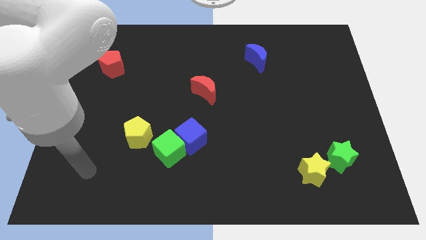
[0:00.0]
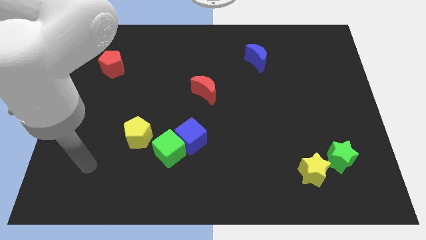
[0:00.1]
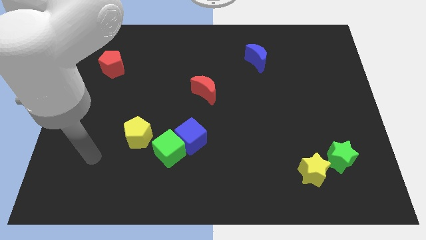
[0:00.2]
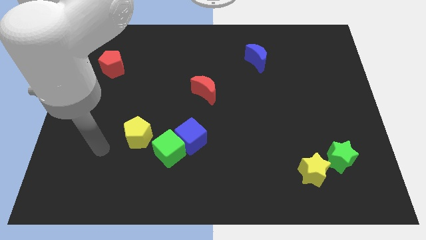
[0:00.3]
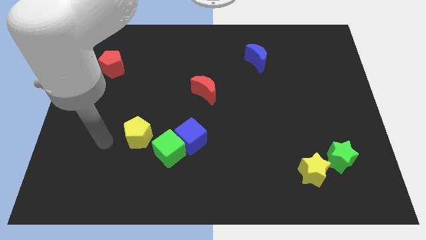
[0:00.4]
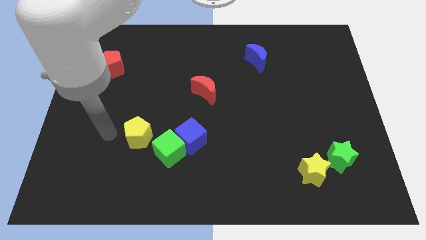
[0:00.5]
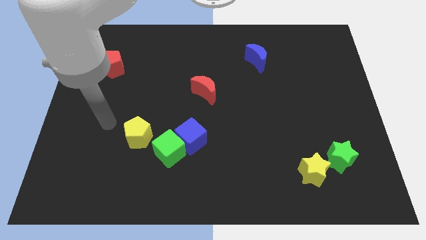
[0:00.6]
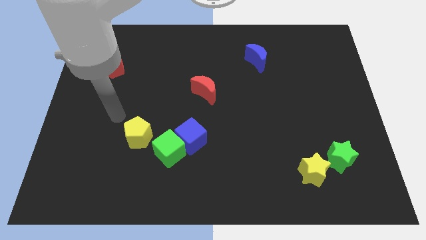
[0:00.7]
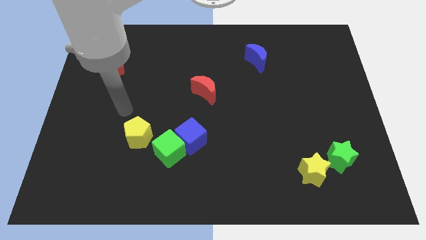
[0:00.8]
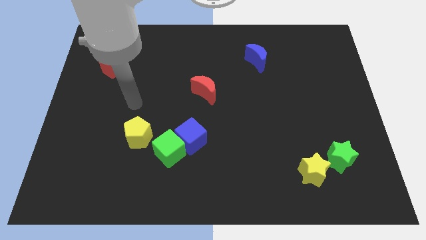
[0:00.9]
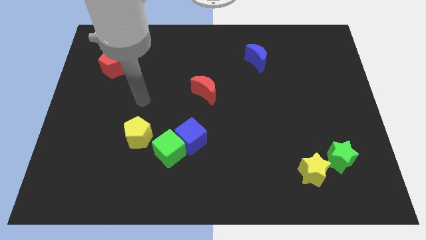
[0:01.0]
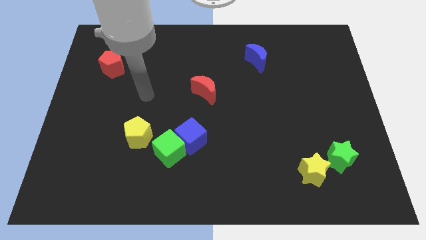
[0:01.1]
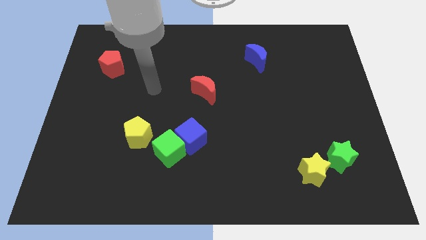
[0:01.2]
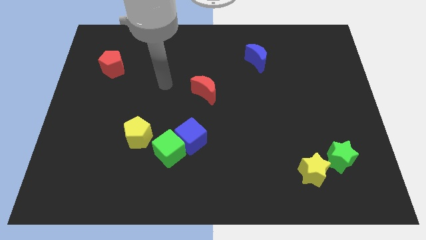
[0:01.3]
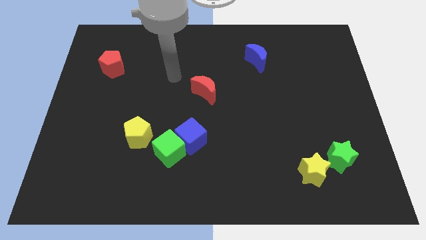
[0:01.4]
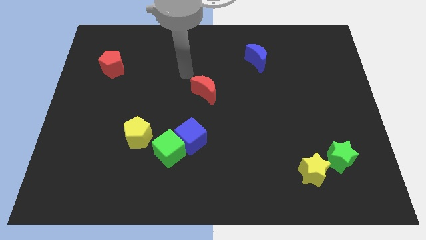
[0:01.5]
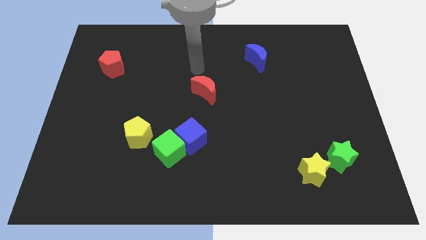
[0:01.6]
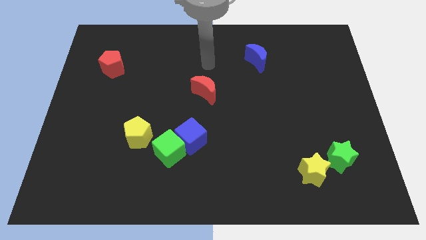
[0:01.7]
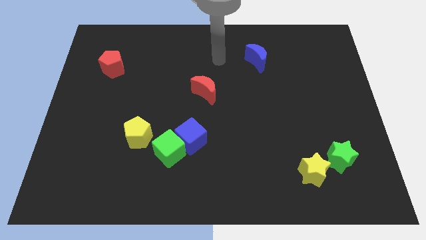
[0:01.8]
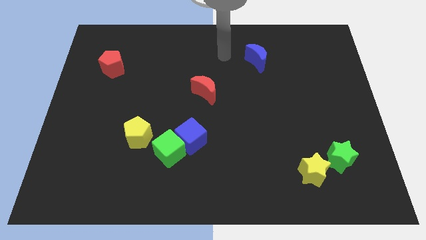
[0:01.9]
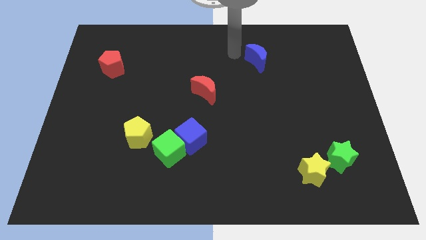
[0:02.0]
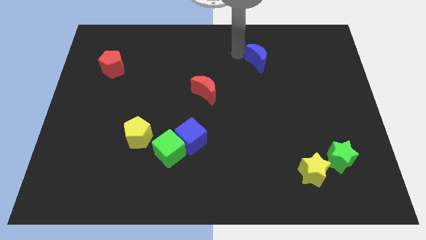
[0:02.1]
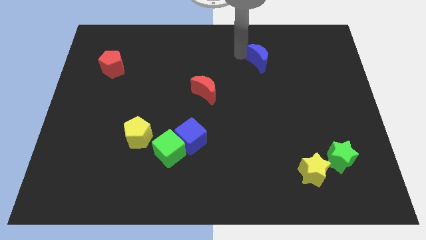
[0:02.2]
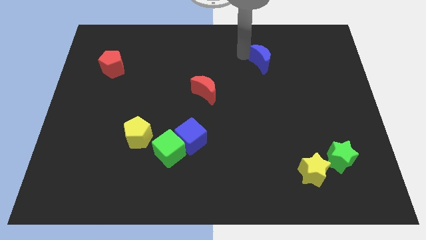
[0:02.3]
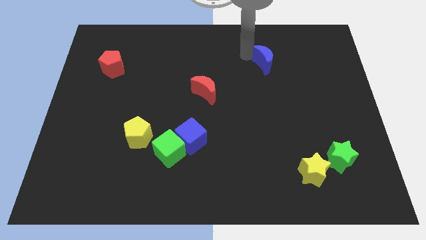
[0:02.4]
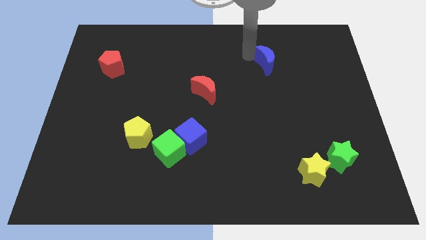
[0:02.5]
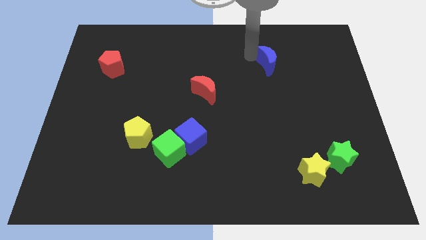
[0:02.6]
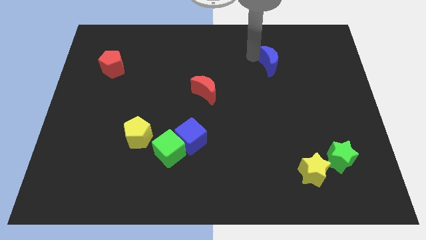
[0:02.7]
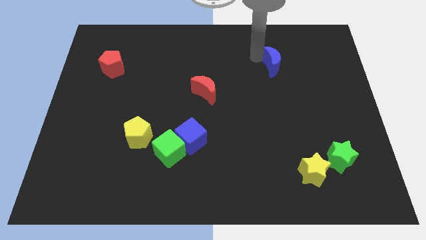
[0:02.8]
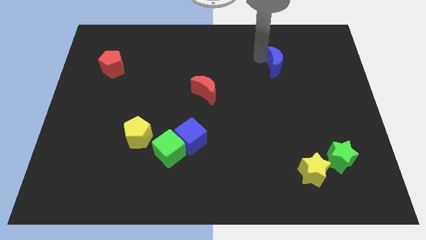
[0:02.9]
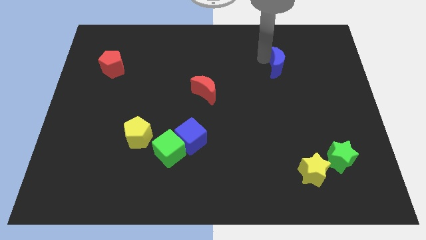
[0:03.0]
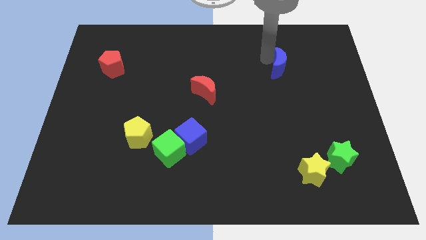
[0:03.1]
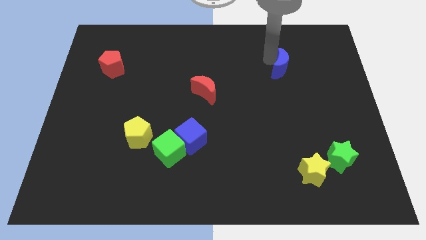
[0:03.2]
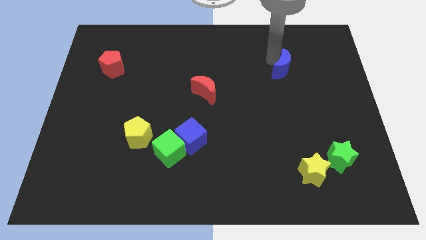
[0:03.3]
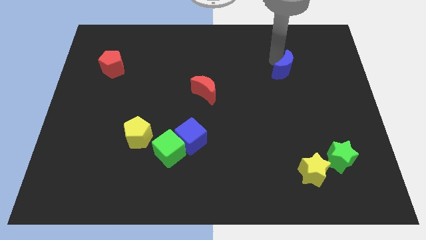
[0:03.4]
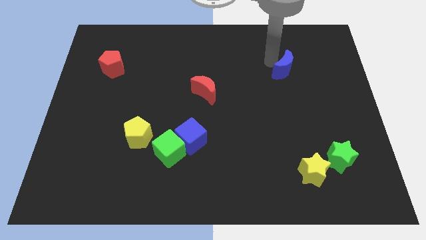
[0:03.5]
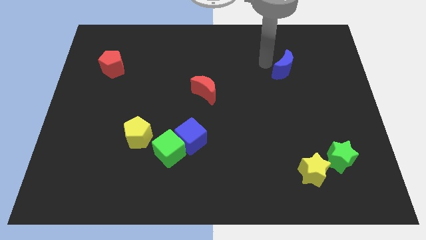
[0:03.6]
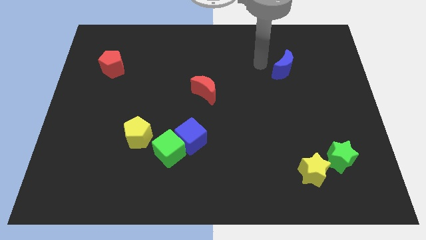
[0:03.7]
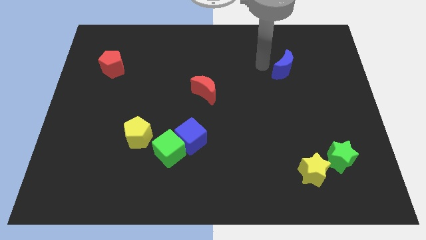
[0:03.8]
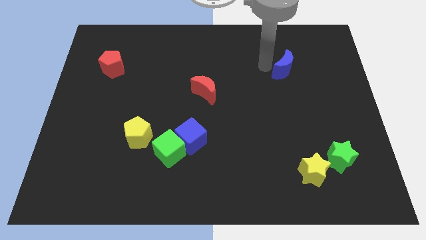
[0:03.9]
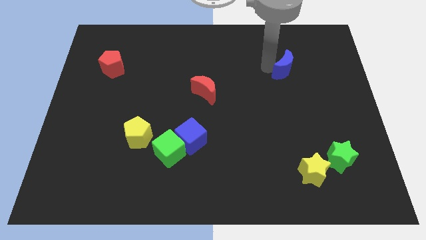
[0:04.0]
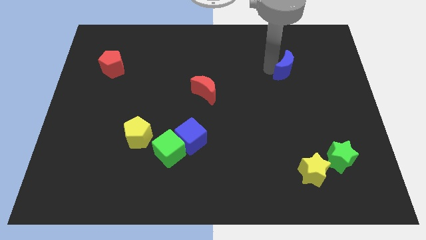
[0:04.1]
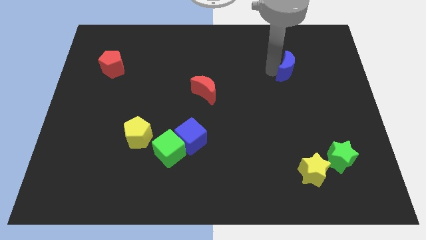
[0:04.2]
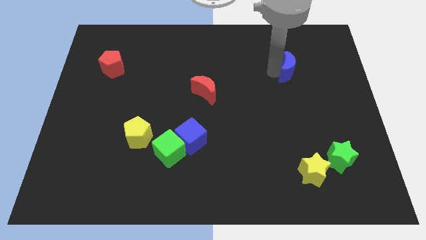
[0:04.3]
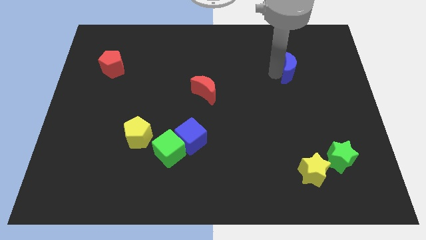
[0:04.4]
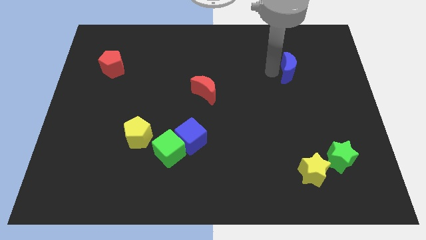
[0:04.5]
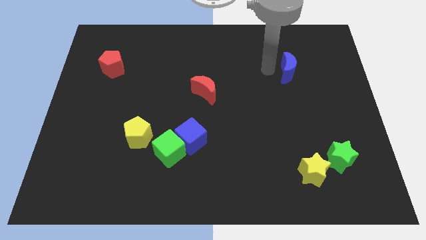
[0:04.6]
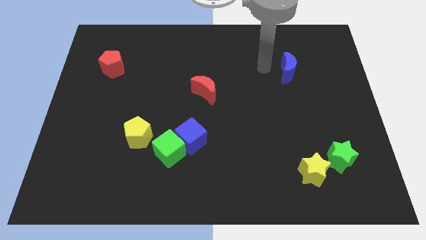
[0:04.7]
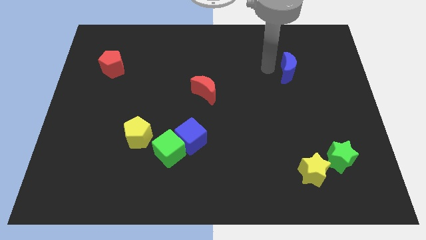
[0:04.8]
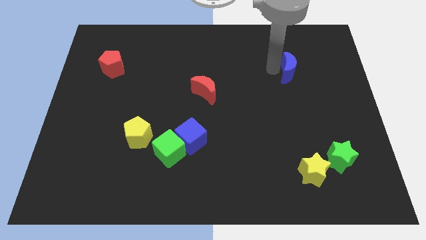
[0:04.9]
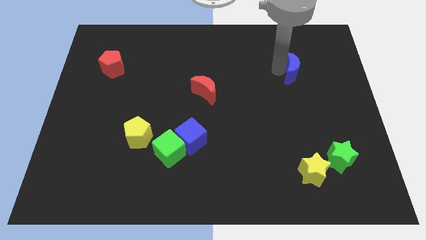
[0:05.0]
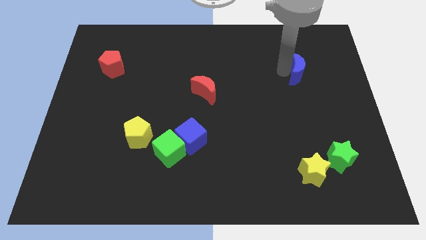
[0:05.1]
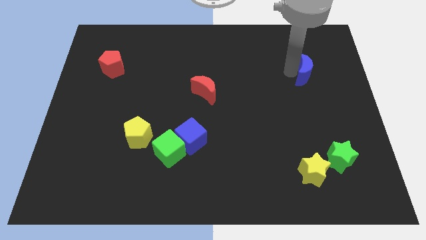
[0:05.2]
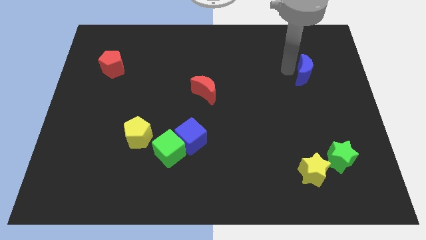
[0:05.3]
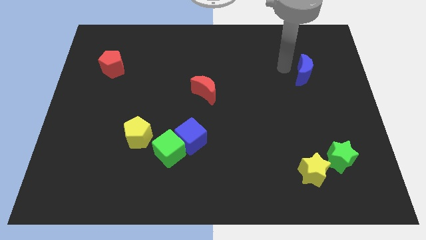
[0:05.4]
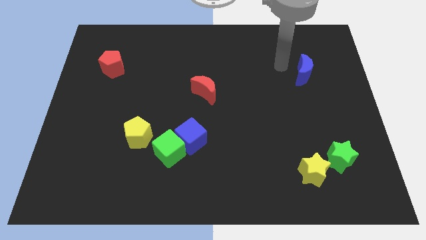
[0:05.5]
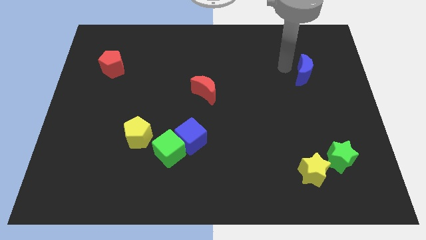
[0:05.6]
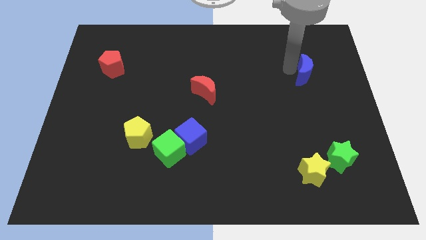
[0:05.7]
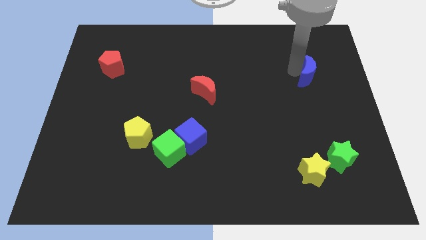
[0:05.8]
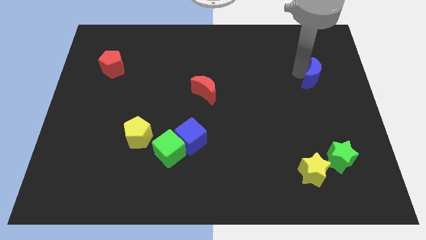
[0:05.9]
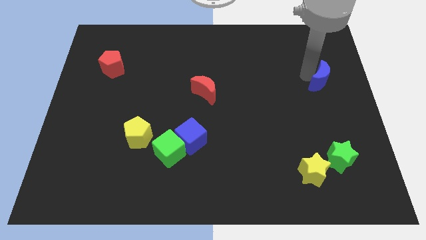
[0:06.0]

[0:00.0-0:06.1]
slide the blue moon to the right side

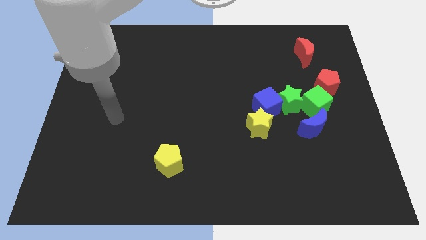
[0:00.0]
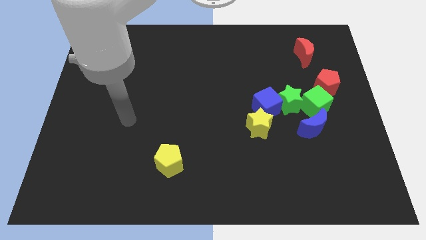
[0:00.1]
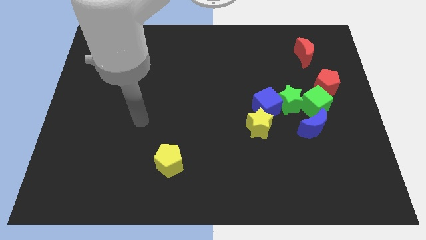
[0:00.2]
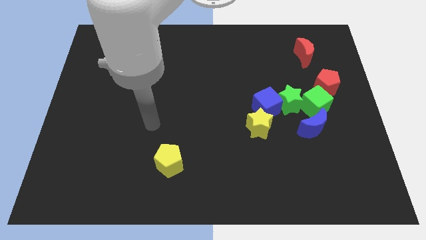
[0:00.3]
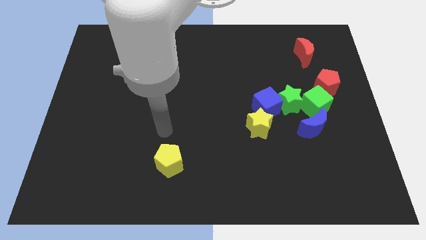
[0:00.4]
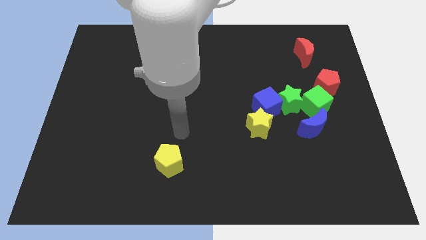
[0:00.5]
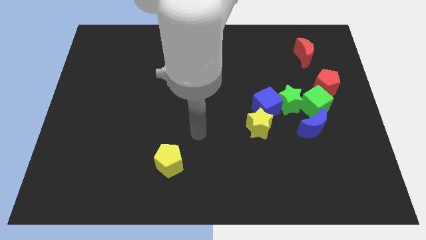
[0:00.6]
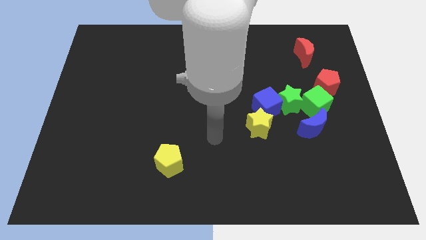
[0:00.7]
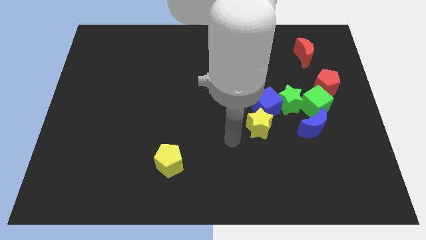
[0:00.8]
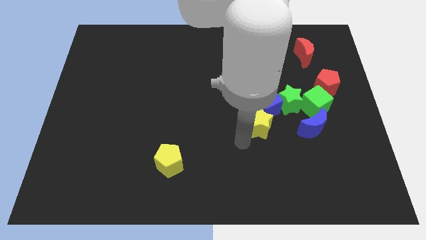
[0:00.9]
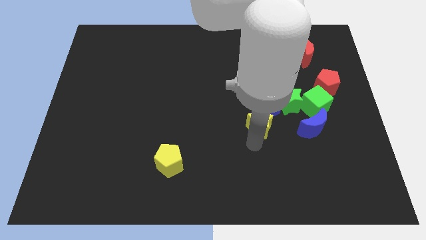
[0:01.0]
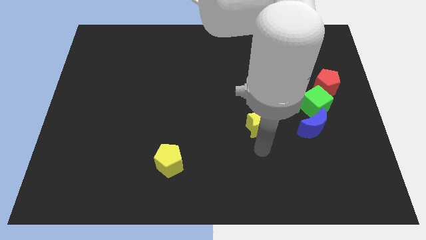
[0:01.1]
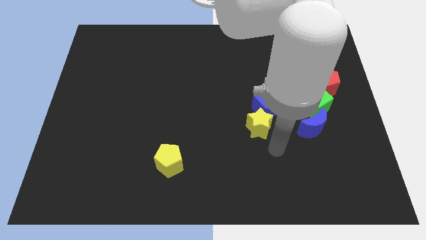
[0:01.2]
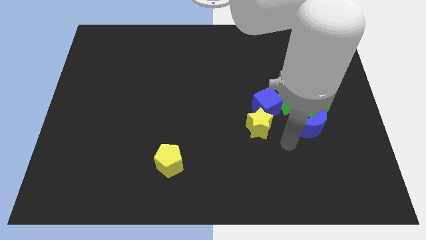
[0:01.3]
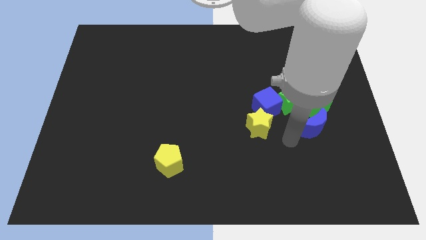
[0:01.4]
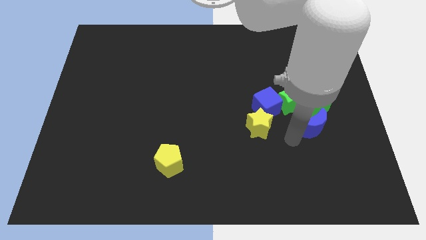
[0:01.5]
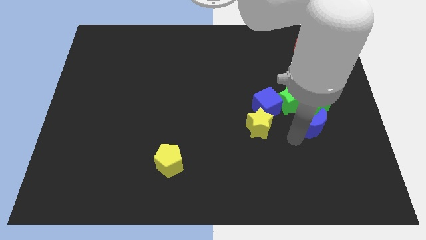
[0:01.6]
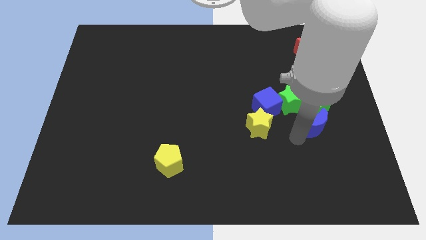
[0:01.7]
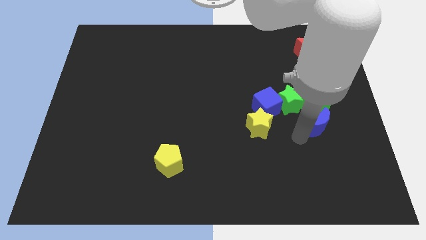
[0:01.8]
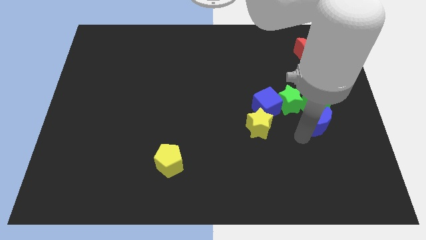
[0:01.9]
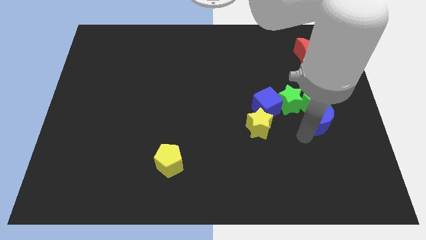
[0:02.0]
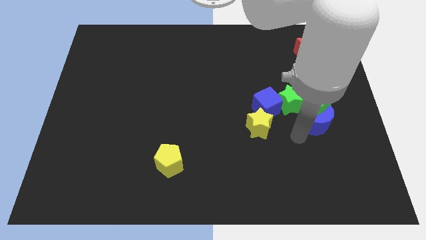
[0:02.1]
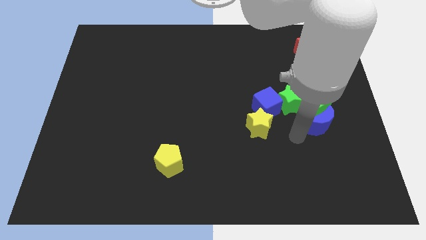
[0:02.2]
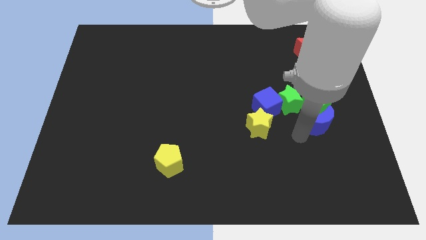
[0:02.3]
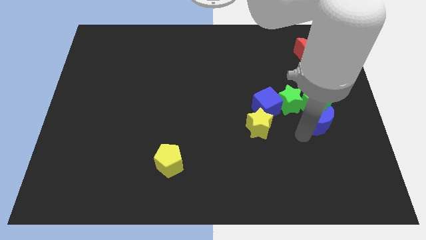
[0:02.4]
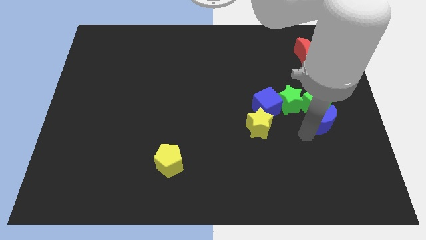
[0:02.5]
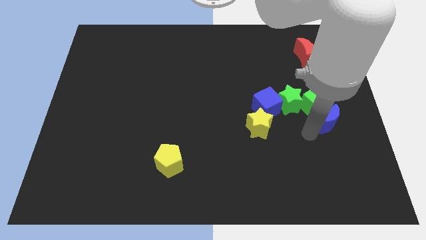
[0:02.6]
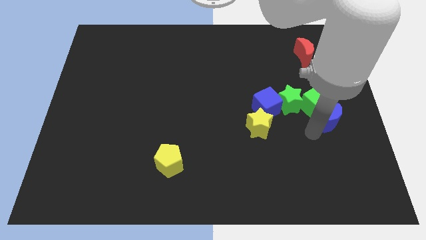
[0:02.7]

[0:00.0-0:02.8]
move the blue moon to the center right
